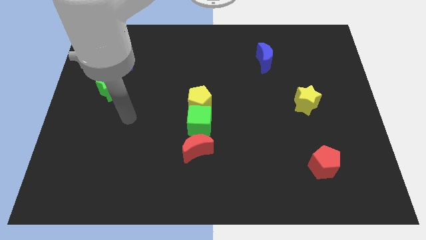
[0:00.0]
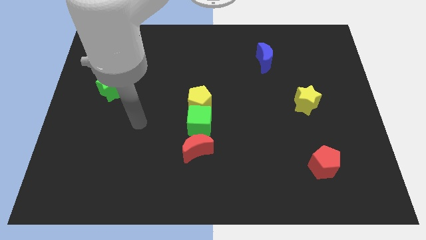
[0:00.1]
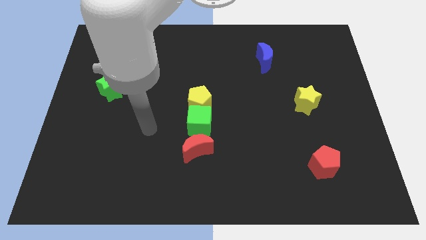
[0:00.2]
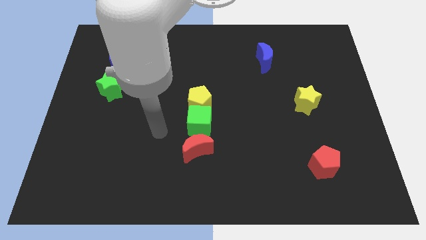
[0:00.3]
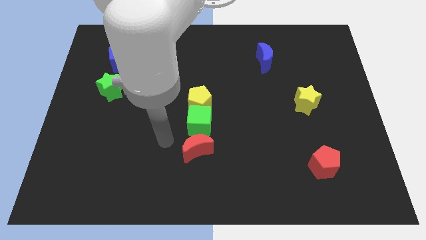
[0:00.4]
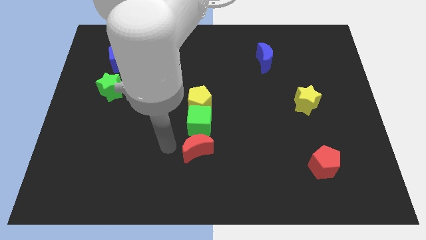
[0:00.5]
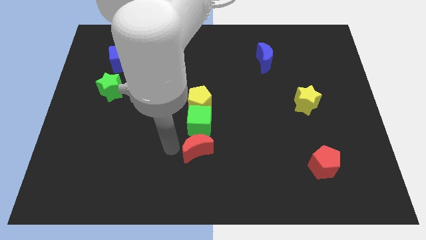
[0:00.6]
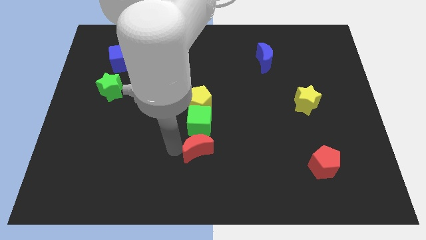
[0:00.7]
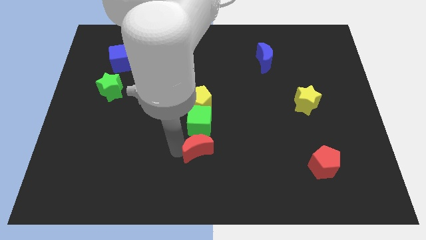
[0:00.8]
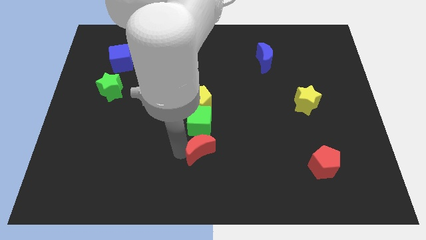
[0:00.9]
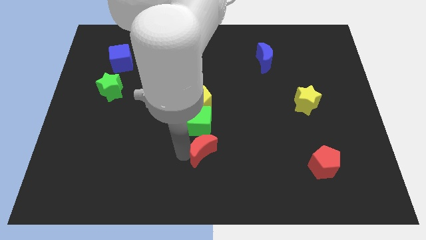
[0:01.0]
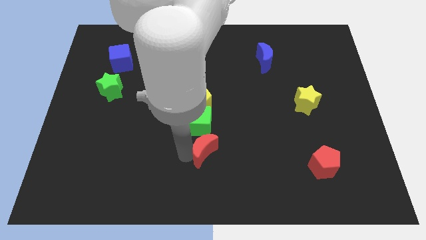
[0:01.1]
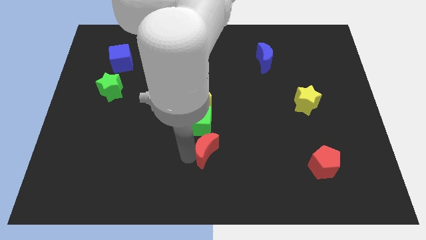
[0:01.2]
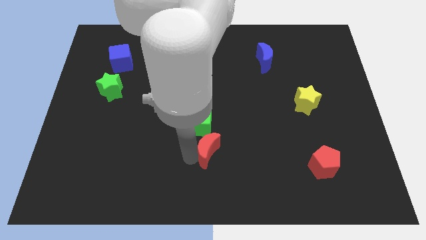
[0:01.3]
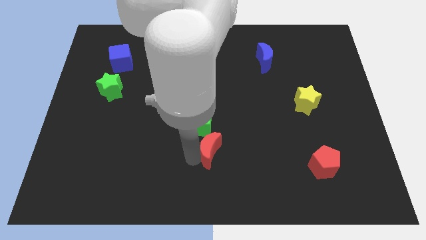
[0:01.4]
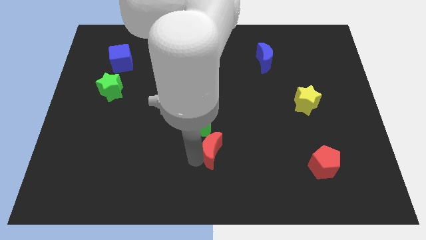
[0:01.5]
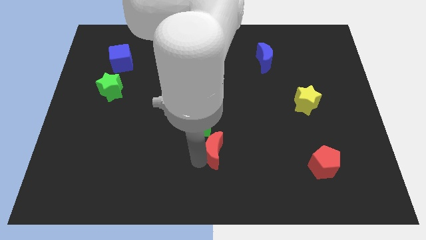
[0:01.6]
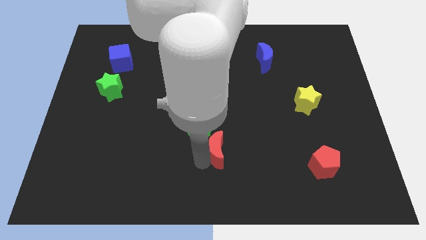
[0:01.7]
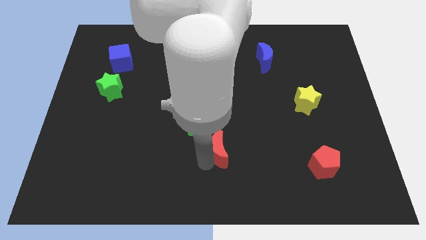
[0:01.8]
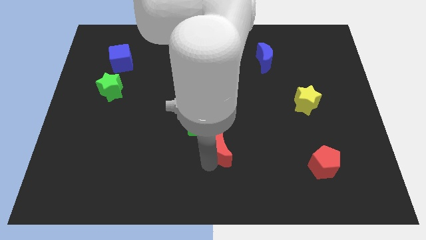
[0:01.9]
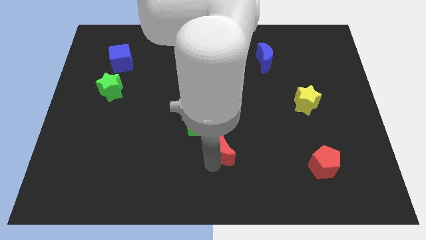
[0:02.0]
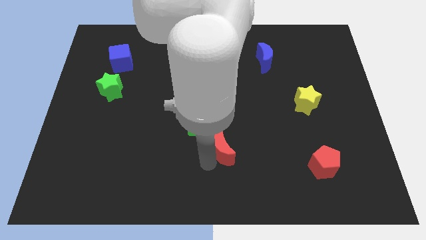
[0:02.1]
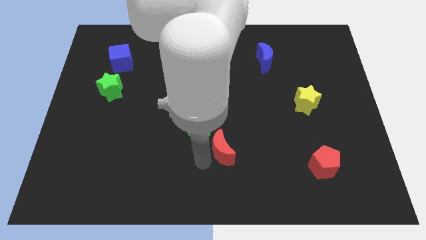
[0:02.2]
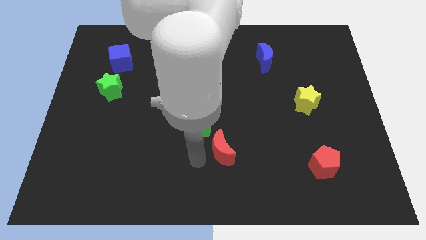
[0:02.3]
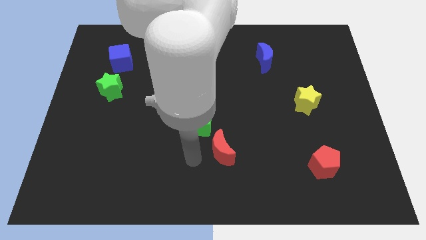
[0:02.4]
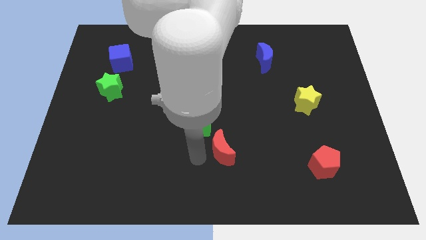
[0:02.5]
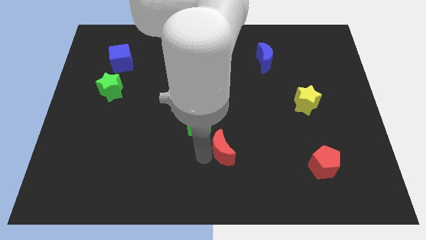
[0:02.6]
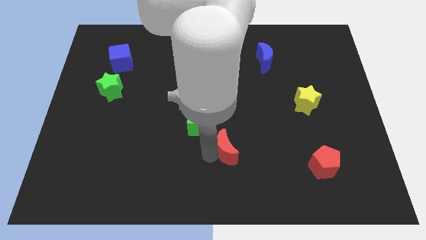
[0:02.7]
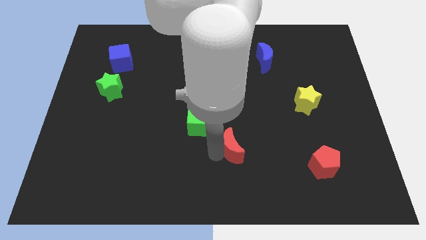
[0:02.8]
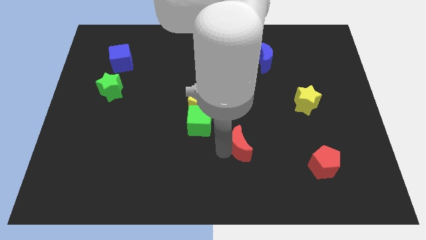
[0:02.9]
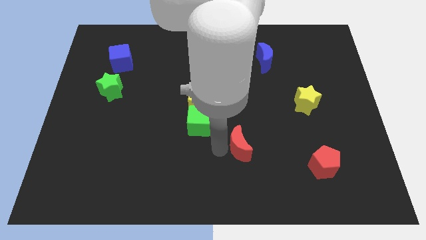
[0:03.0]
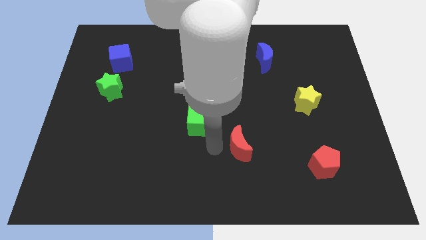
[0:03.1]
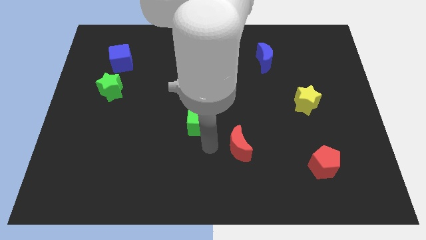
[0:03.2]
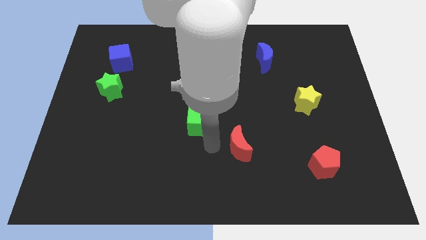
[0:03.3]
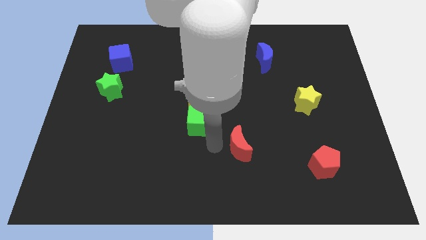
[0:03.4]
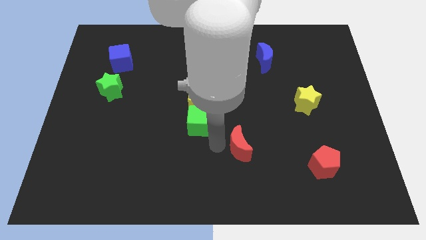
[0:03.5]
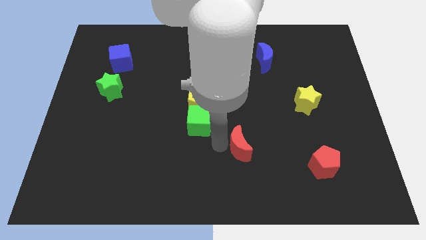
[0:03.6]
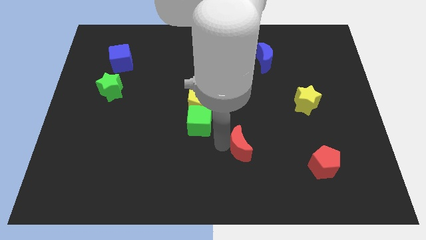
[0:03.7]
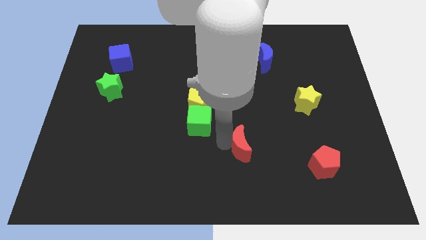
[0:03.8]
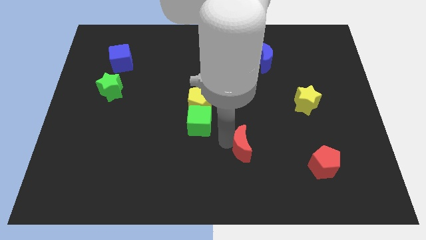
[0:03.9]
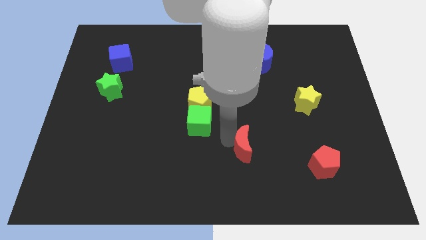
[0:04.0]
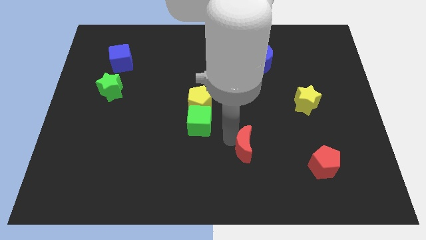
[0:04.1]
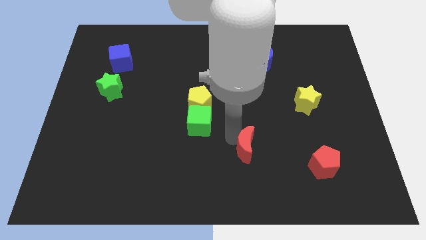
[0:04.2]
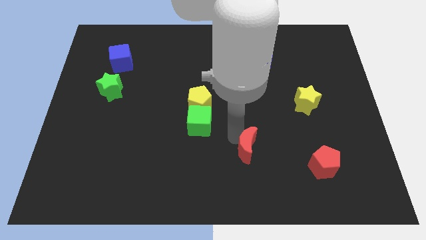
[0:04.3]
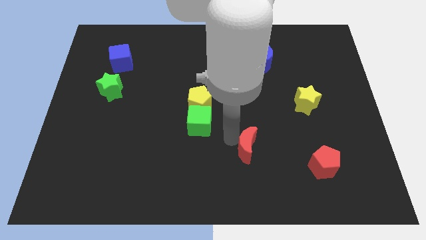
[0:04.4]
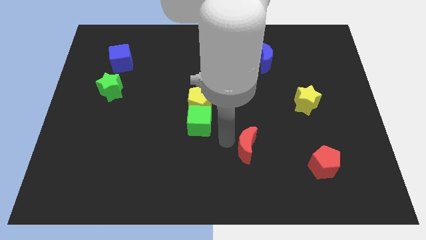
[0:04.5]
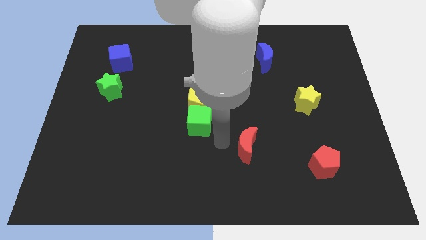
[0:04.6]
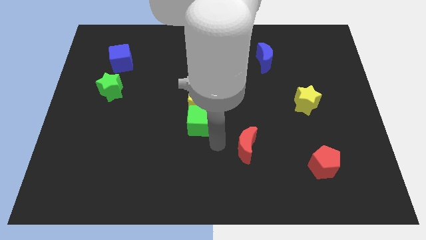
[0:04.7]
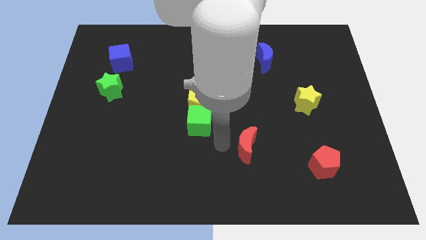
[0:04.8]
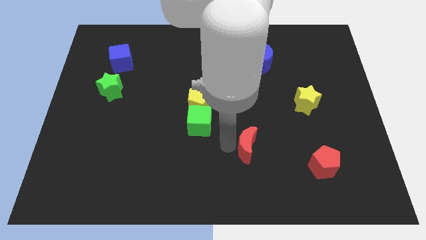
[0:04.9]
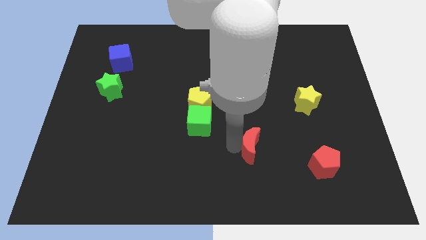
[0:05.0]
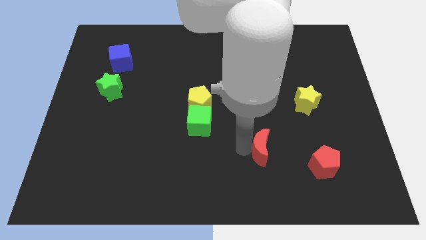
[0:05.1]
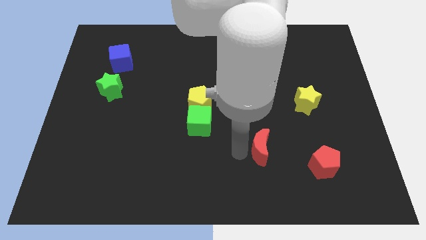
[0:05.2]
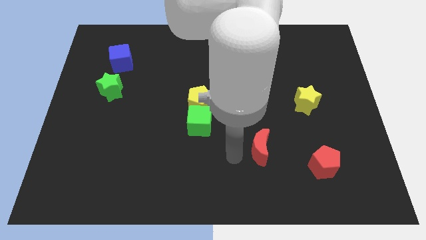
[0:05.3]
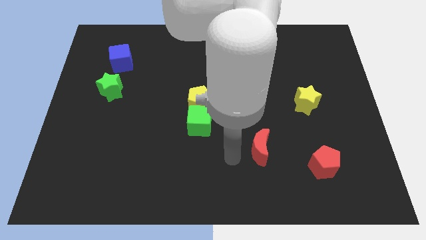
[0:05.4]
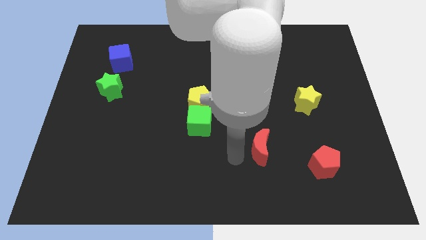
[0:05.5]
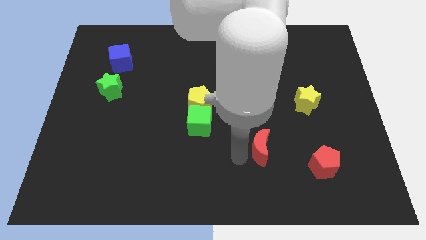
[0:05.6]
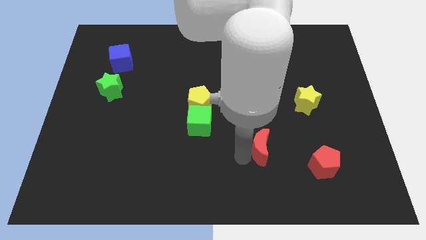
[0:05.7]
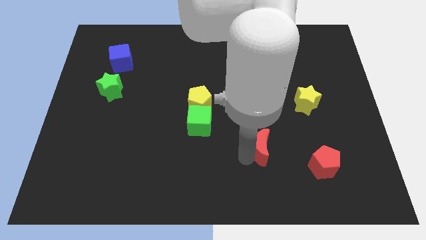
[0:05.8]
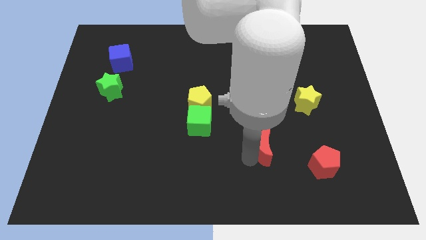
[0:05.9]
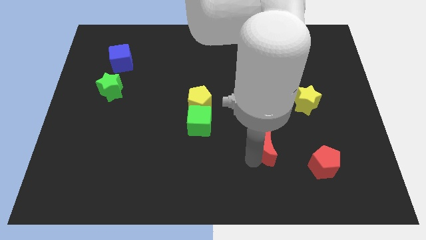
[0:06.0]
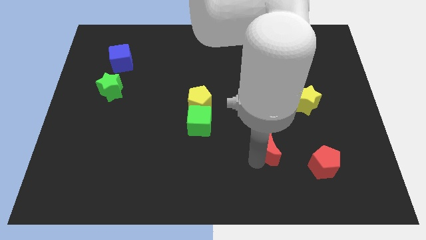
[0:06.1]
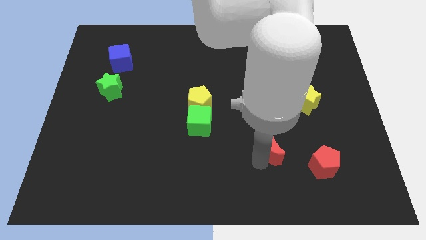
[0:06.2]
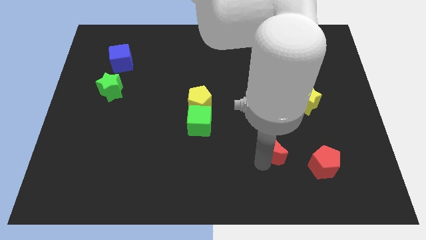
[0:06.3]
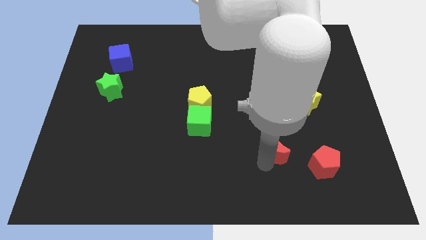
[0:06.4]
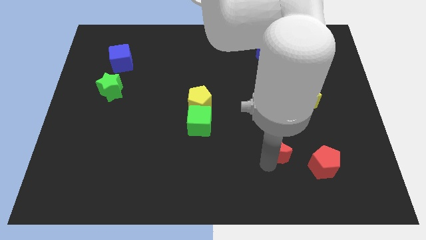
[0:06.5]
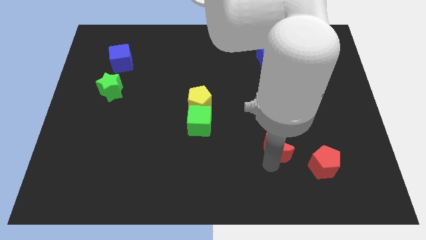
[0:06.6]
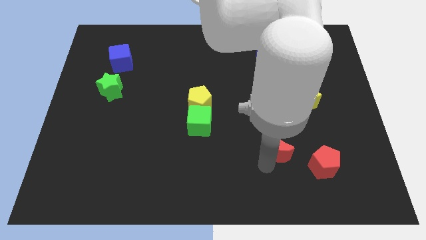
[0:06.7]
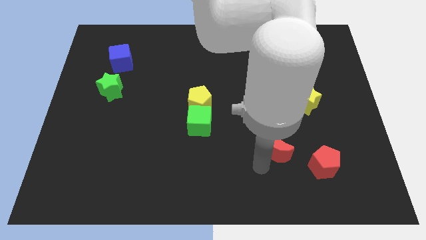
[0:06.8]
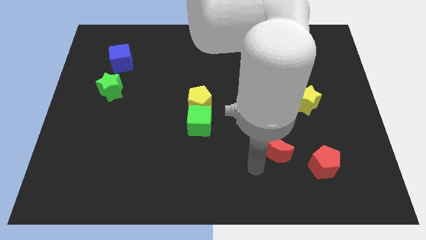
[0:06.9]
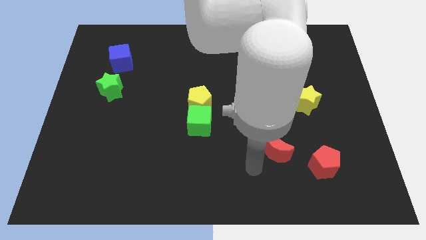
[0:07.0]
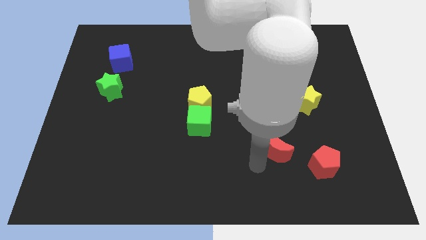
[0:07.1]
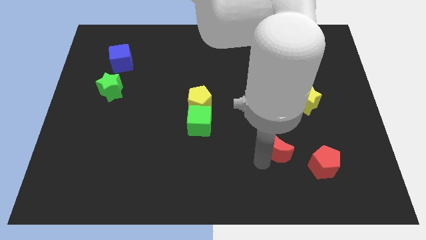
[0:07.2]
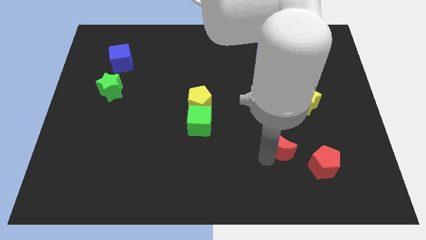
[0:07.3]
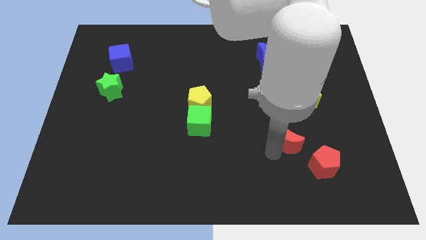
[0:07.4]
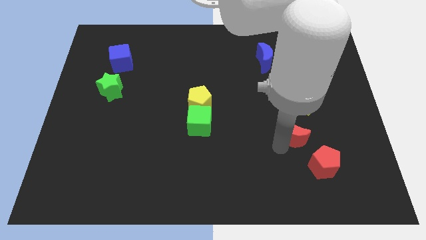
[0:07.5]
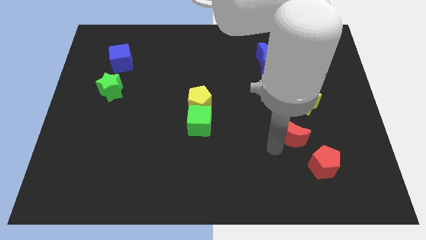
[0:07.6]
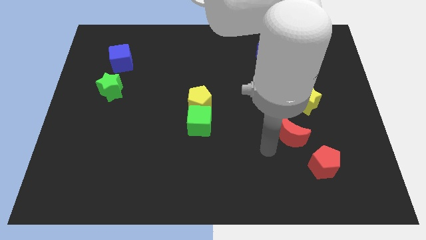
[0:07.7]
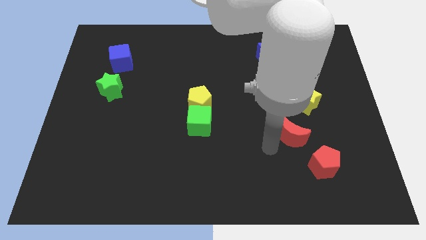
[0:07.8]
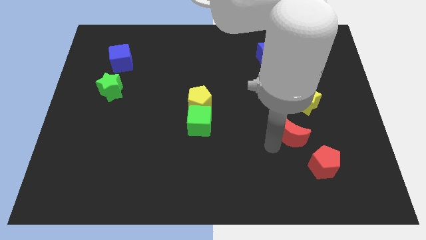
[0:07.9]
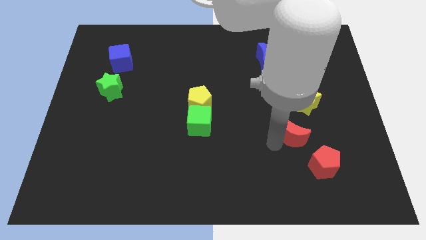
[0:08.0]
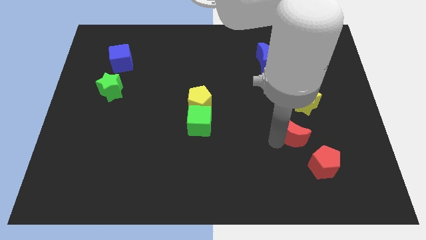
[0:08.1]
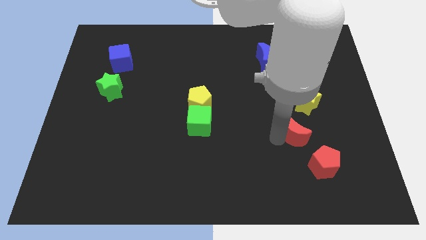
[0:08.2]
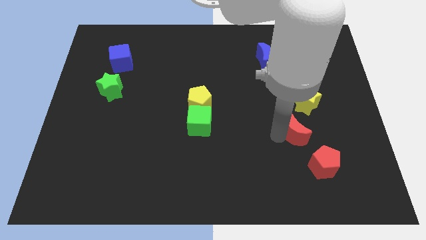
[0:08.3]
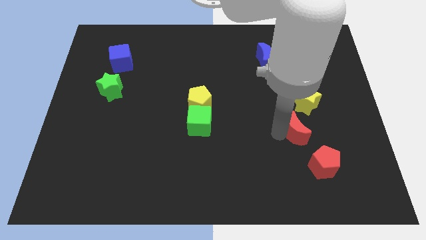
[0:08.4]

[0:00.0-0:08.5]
slide the red moon to the top side of the red pentagon

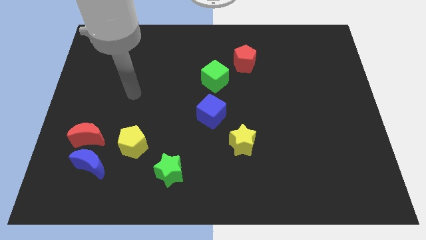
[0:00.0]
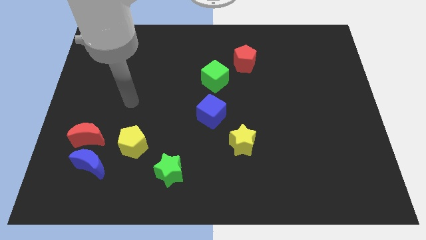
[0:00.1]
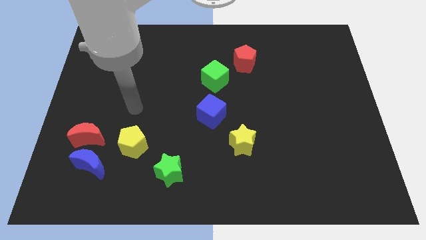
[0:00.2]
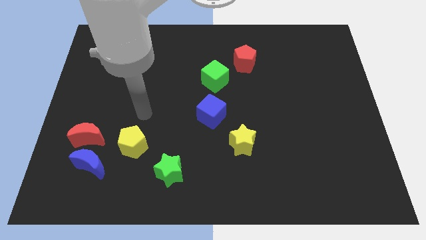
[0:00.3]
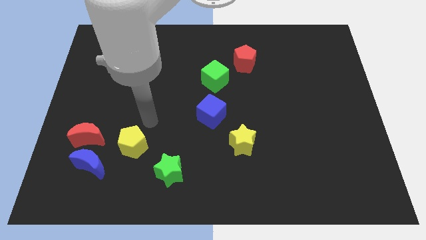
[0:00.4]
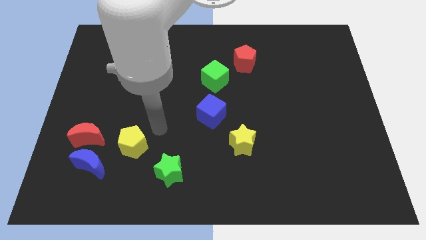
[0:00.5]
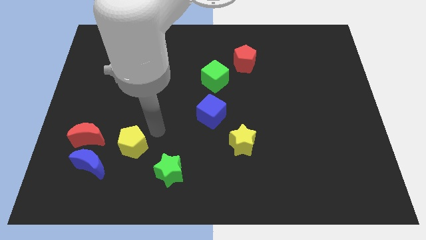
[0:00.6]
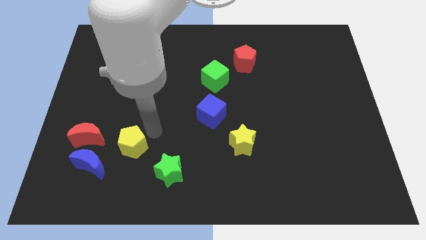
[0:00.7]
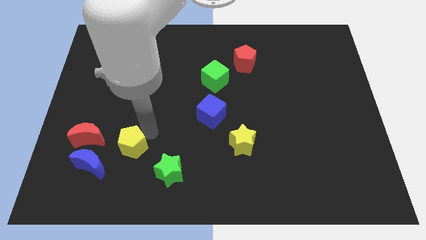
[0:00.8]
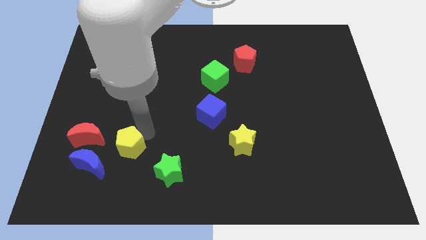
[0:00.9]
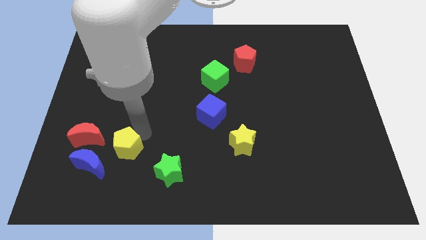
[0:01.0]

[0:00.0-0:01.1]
move the yellow pentagon diagonally down and to the right of the red moon
